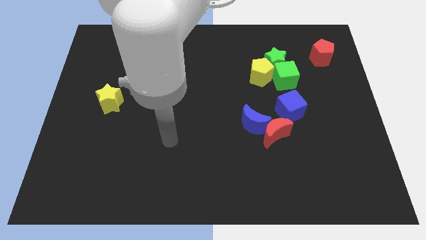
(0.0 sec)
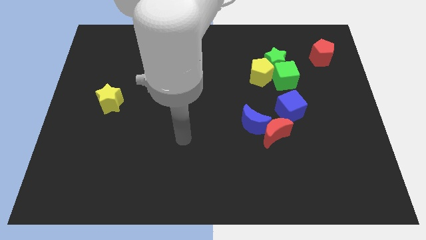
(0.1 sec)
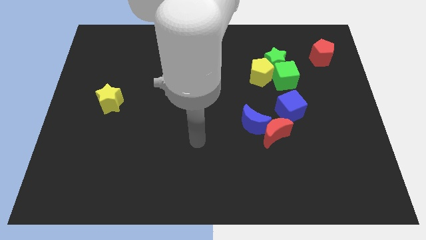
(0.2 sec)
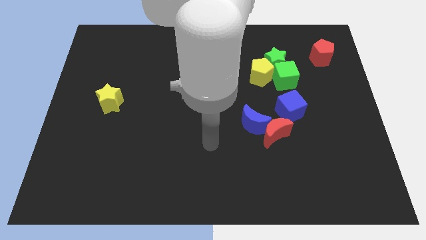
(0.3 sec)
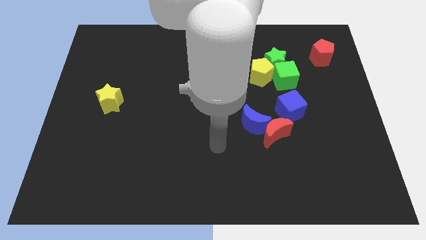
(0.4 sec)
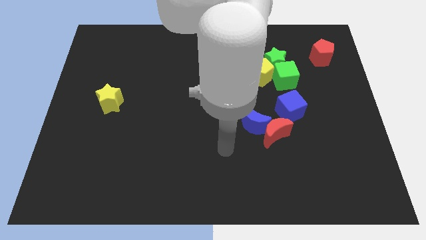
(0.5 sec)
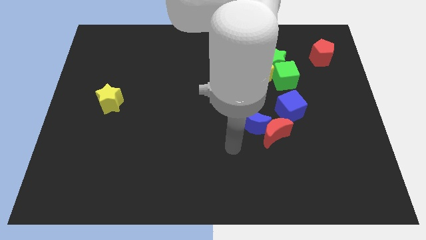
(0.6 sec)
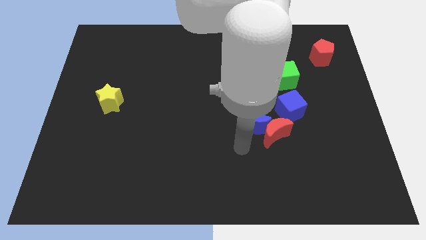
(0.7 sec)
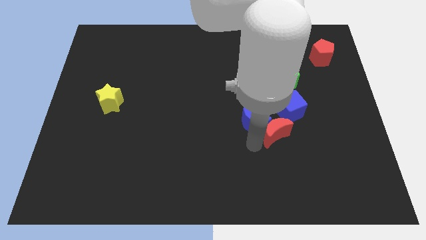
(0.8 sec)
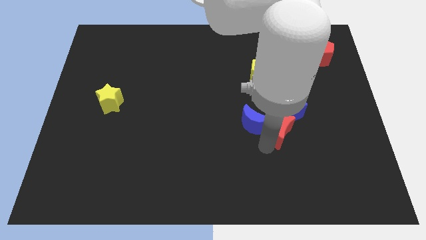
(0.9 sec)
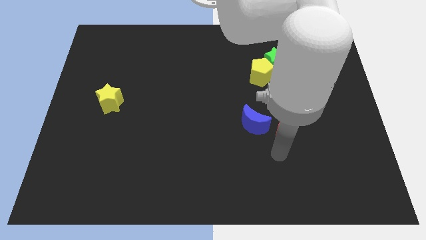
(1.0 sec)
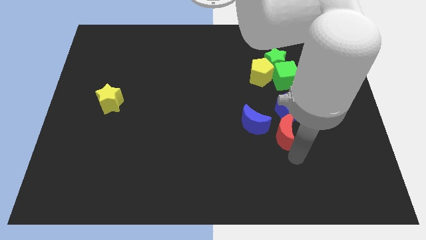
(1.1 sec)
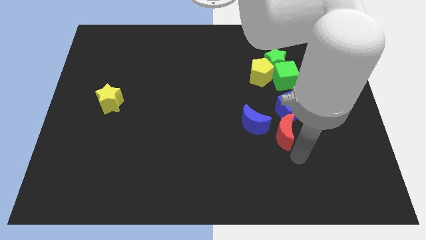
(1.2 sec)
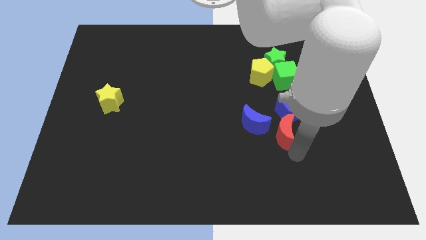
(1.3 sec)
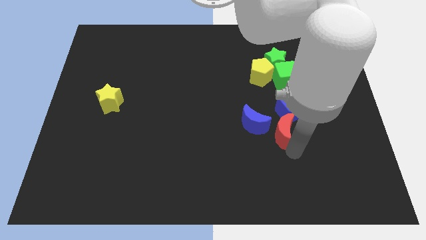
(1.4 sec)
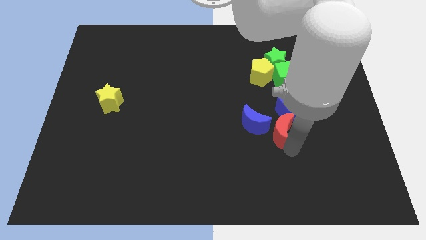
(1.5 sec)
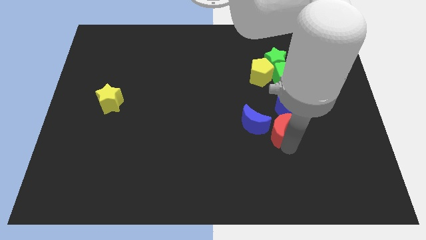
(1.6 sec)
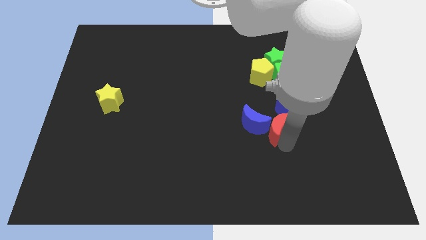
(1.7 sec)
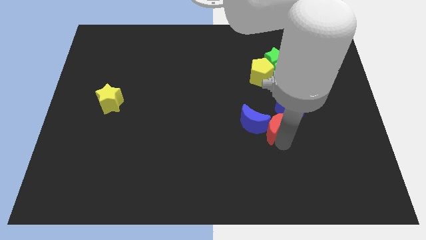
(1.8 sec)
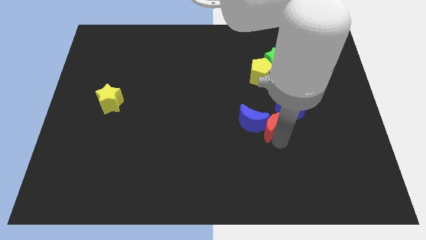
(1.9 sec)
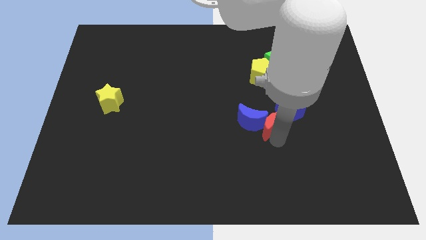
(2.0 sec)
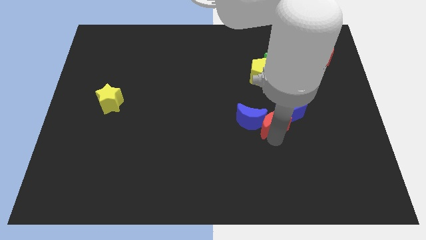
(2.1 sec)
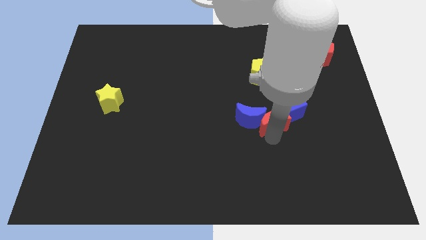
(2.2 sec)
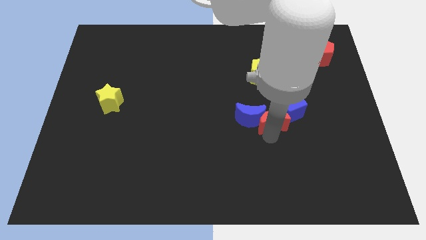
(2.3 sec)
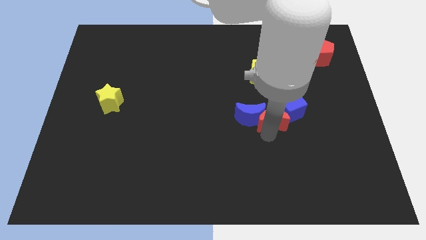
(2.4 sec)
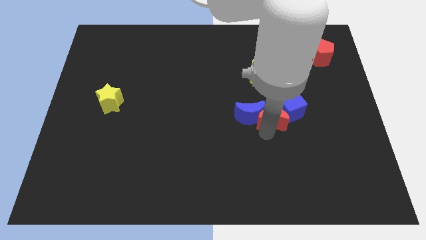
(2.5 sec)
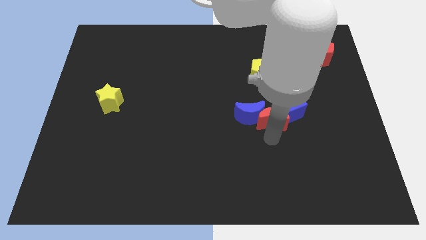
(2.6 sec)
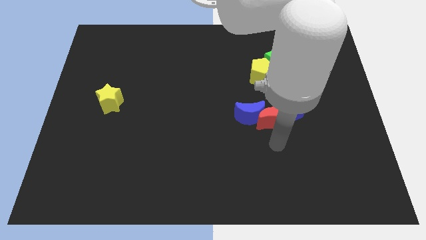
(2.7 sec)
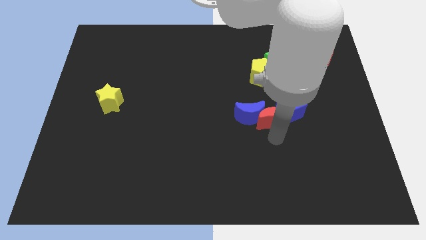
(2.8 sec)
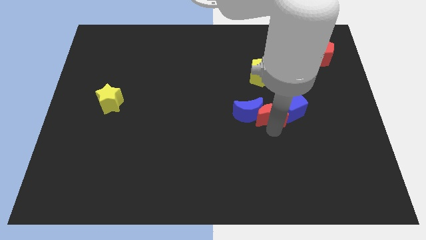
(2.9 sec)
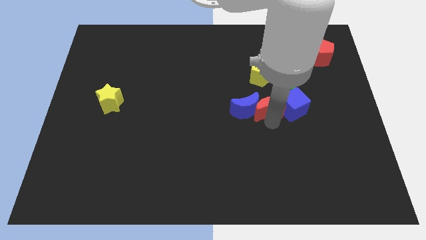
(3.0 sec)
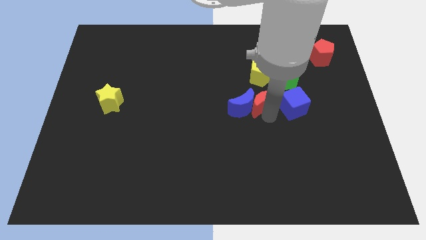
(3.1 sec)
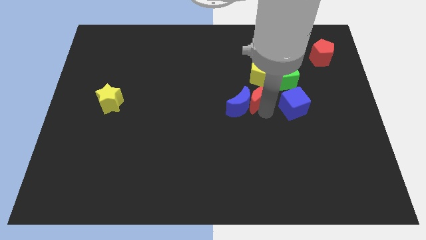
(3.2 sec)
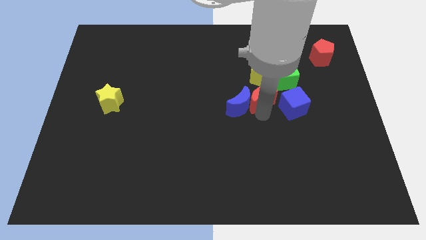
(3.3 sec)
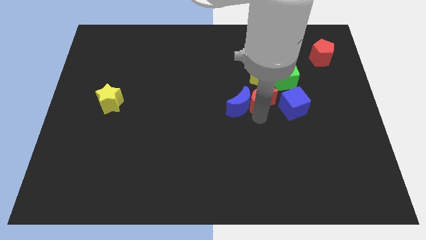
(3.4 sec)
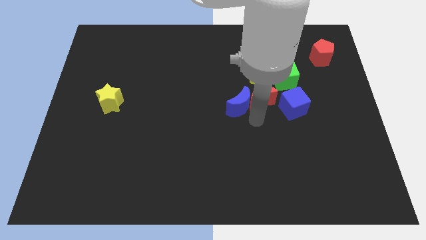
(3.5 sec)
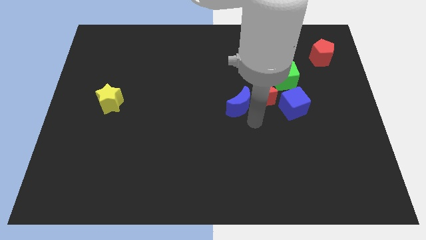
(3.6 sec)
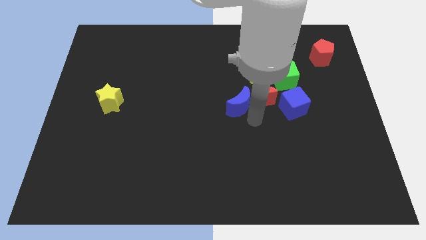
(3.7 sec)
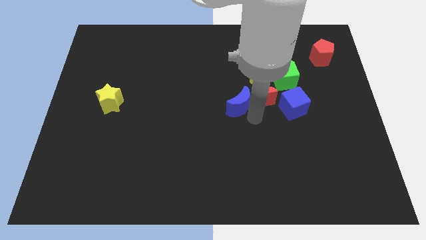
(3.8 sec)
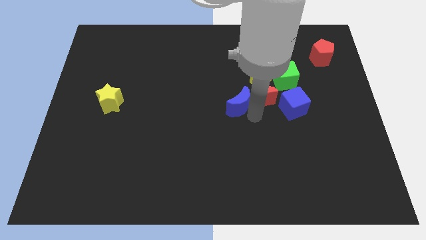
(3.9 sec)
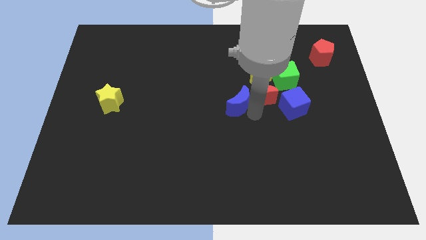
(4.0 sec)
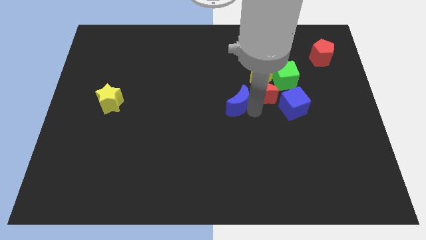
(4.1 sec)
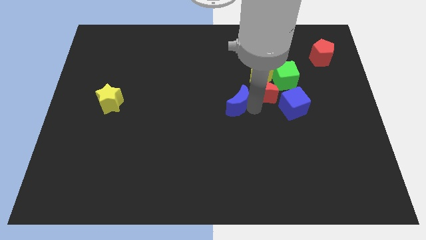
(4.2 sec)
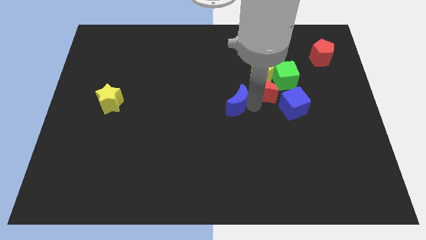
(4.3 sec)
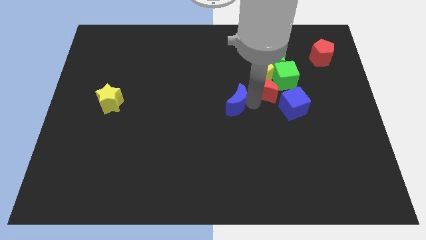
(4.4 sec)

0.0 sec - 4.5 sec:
move the red moon to the yellow pentagon

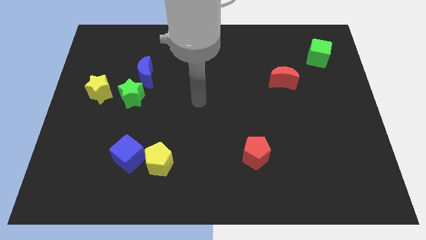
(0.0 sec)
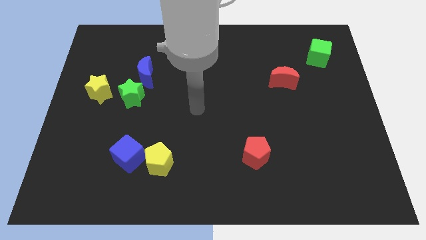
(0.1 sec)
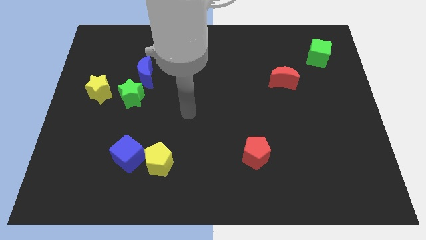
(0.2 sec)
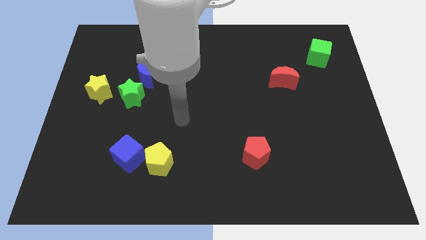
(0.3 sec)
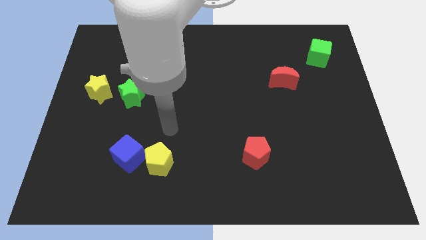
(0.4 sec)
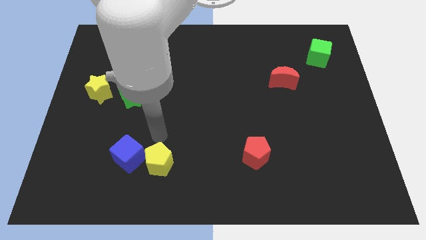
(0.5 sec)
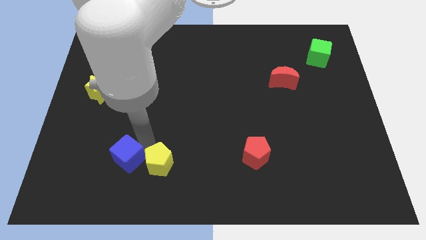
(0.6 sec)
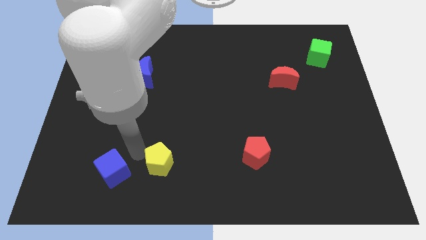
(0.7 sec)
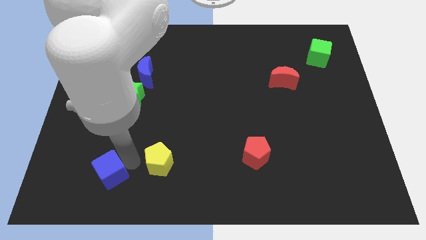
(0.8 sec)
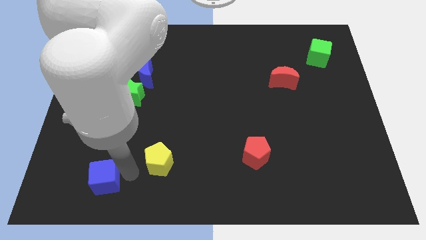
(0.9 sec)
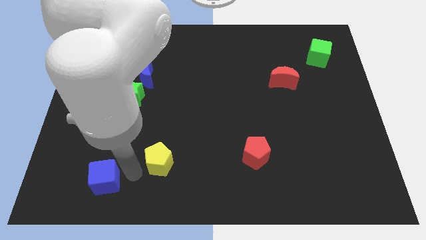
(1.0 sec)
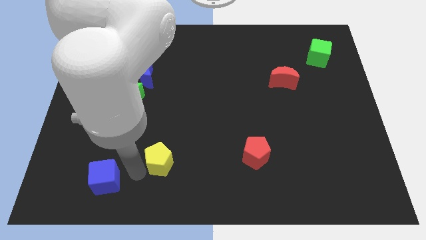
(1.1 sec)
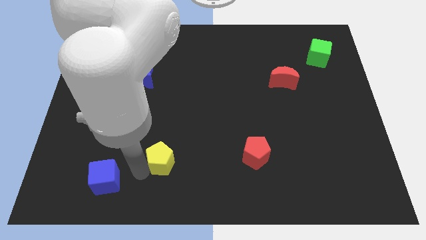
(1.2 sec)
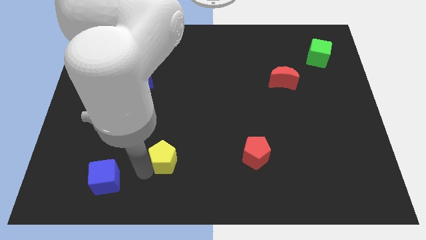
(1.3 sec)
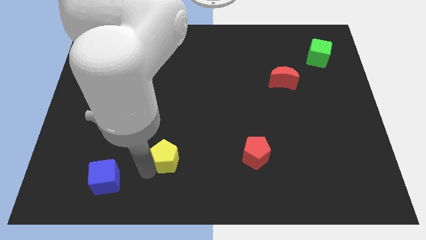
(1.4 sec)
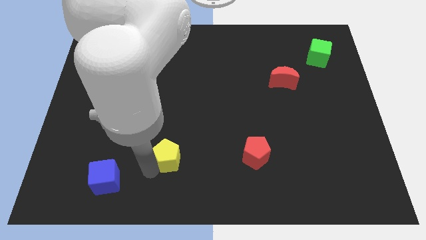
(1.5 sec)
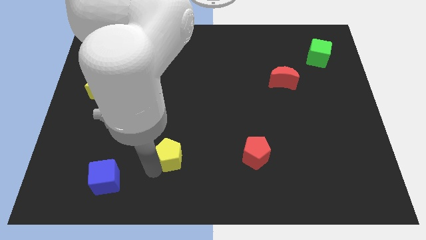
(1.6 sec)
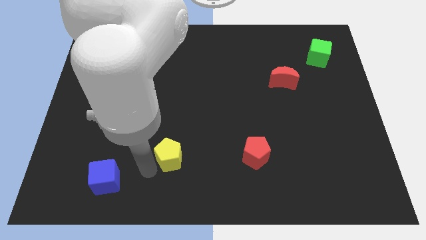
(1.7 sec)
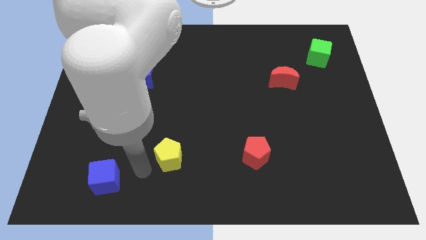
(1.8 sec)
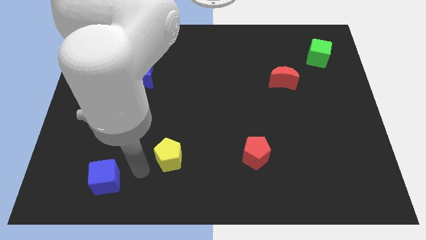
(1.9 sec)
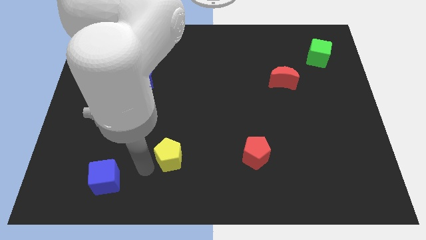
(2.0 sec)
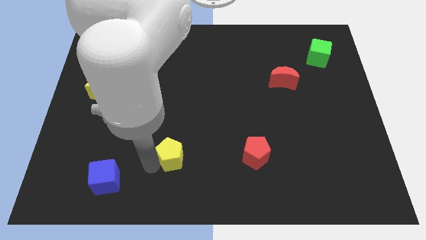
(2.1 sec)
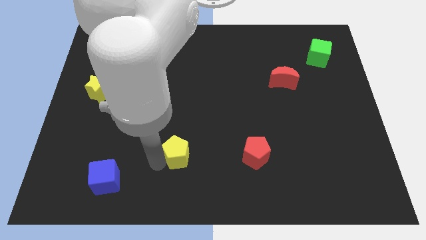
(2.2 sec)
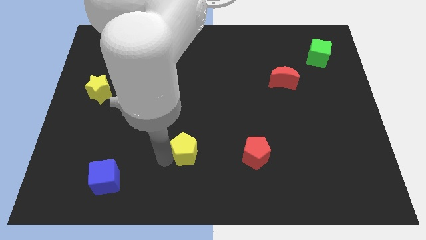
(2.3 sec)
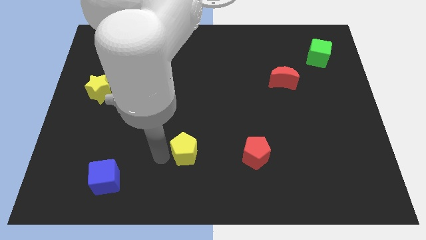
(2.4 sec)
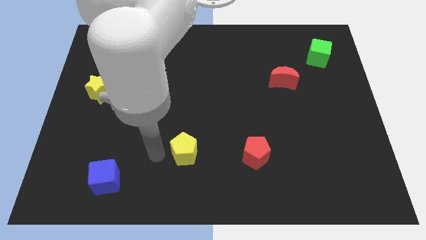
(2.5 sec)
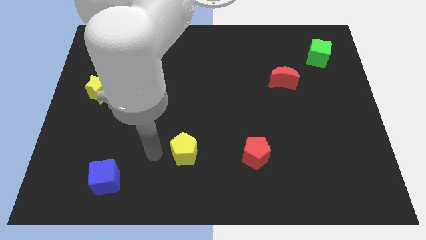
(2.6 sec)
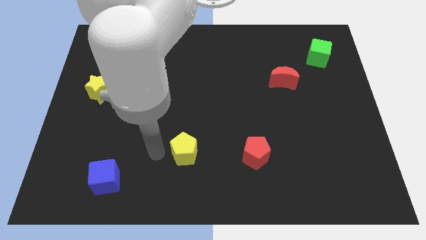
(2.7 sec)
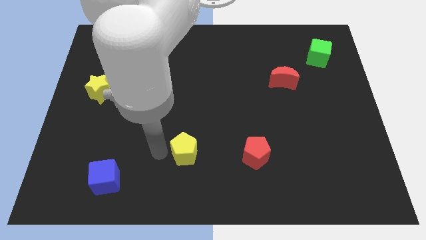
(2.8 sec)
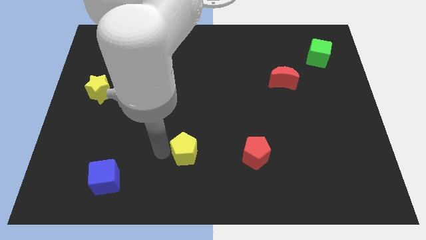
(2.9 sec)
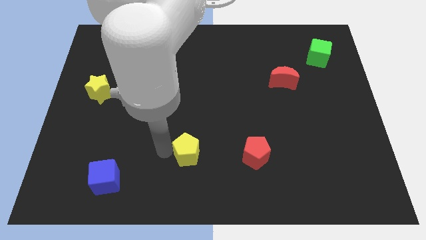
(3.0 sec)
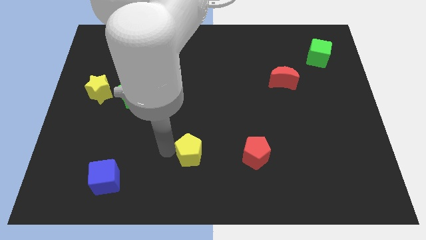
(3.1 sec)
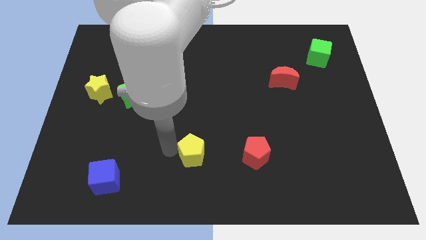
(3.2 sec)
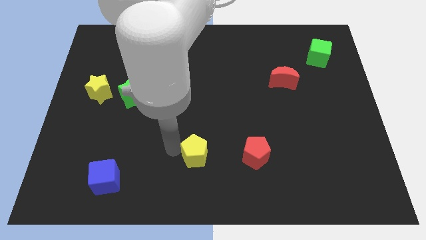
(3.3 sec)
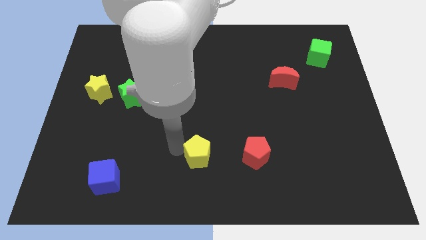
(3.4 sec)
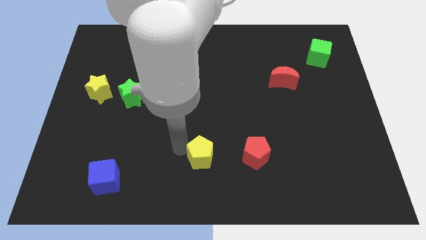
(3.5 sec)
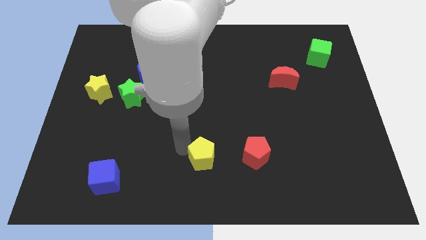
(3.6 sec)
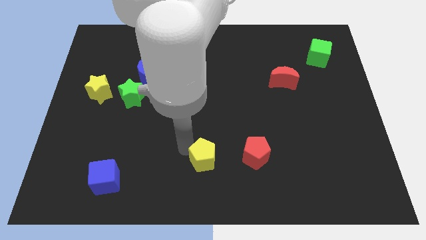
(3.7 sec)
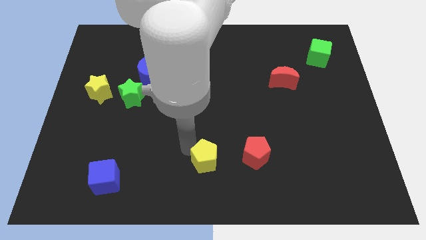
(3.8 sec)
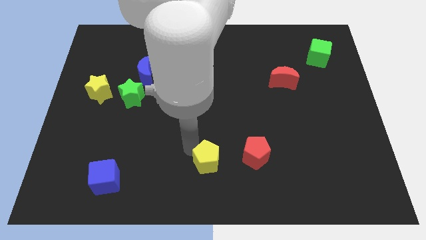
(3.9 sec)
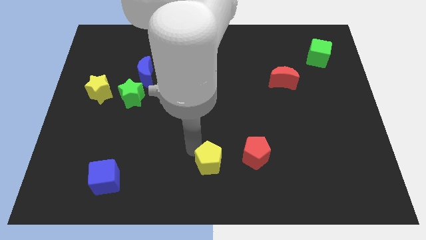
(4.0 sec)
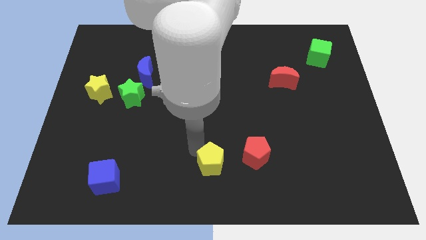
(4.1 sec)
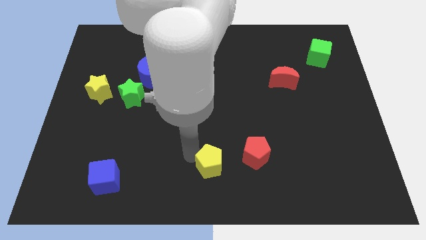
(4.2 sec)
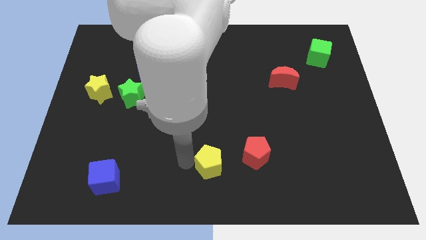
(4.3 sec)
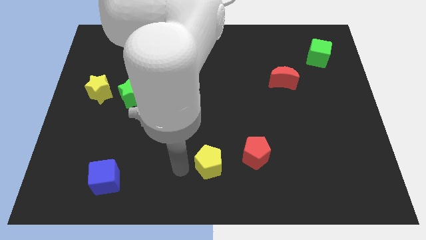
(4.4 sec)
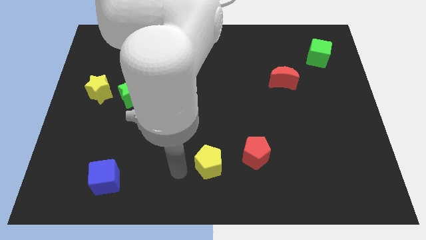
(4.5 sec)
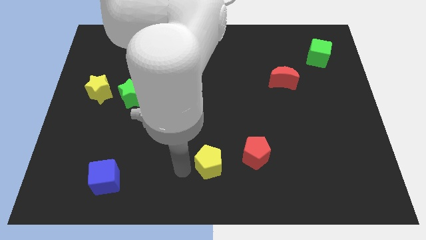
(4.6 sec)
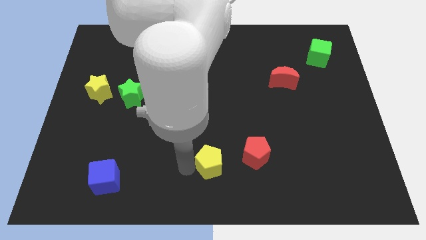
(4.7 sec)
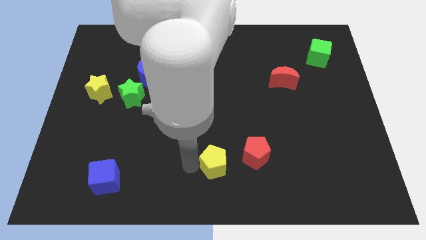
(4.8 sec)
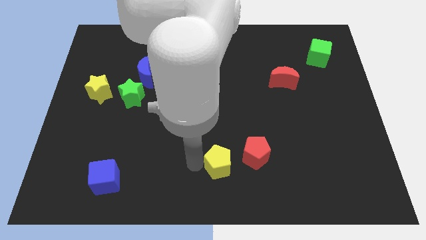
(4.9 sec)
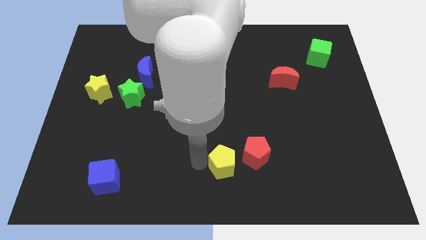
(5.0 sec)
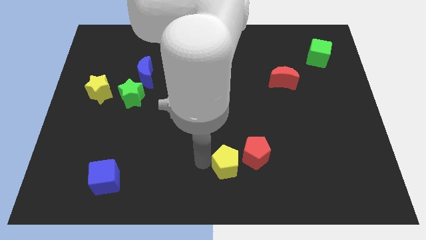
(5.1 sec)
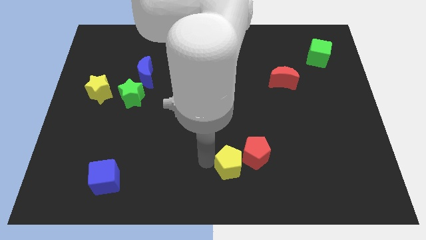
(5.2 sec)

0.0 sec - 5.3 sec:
push the yellow pentagon close to the red pentagon
